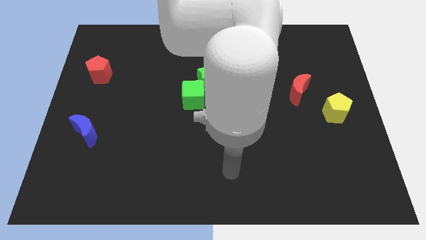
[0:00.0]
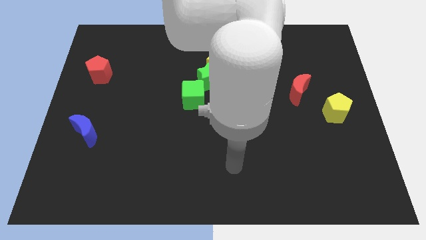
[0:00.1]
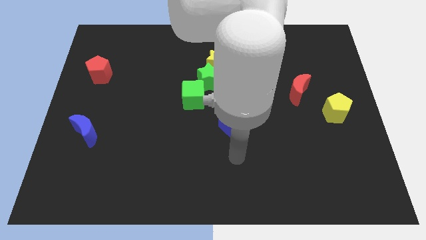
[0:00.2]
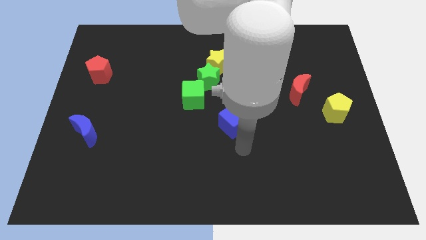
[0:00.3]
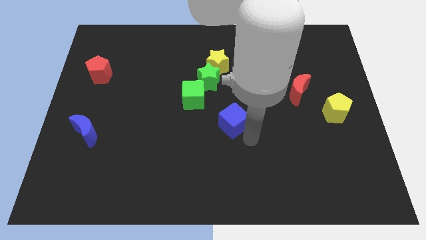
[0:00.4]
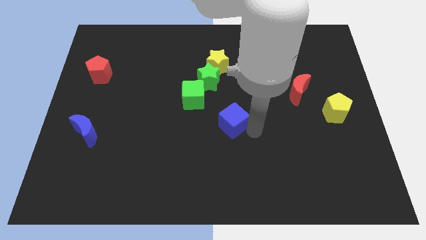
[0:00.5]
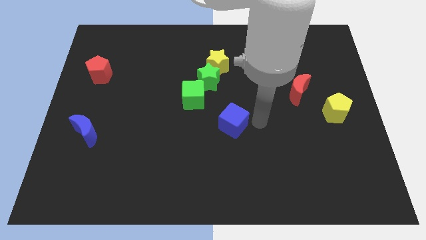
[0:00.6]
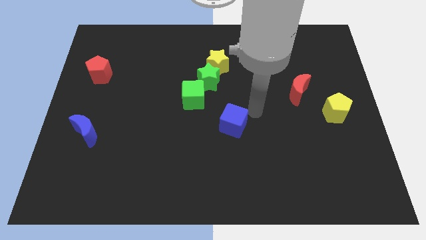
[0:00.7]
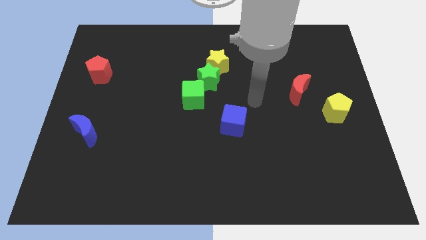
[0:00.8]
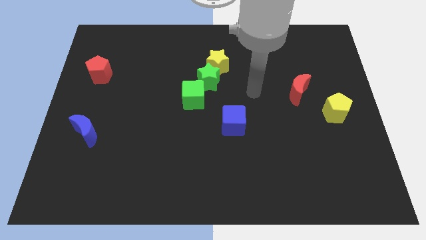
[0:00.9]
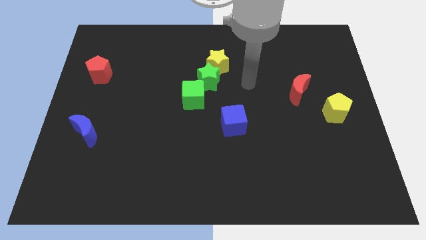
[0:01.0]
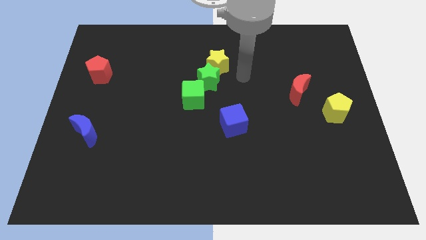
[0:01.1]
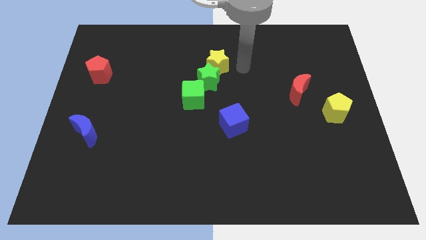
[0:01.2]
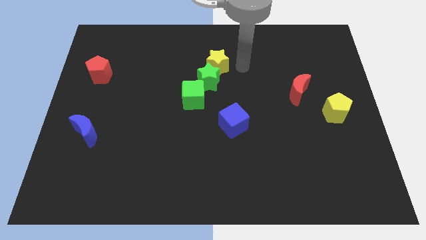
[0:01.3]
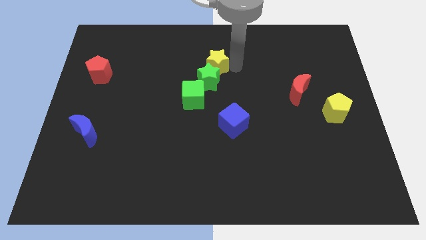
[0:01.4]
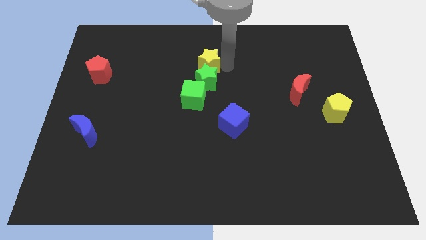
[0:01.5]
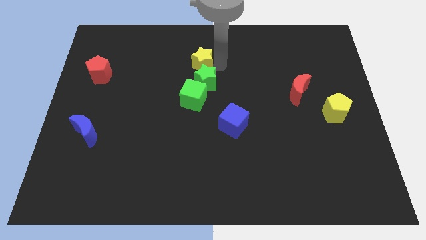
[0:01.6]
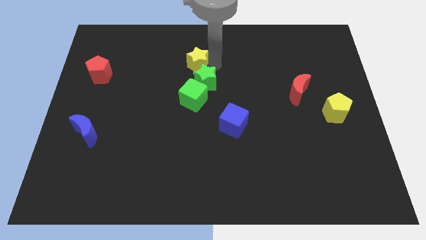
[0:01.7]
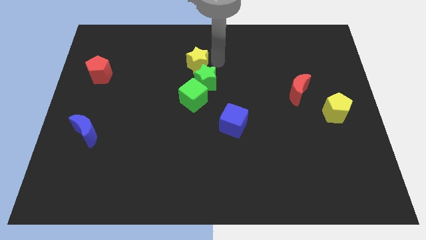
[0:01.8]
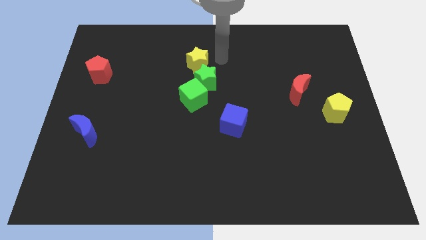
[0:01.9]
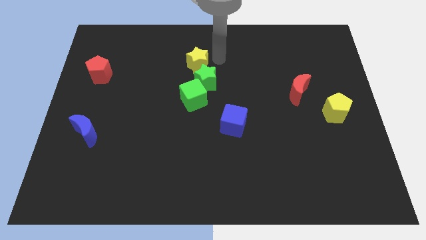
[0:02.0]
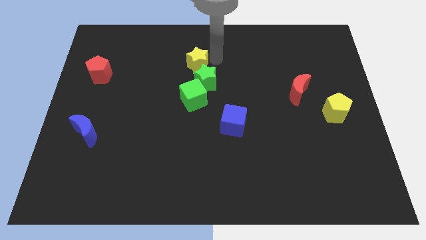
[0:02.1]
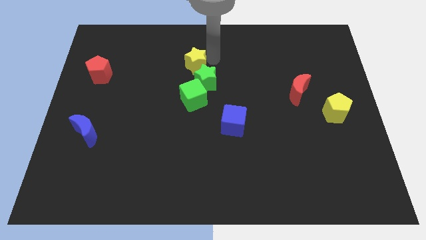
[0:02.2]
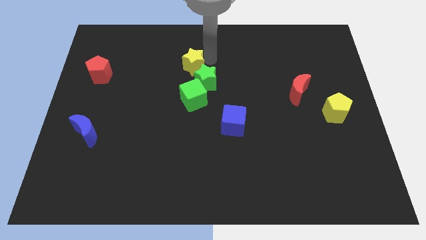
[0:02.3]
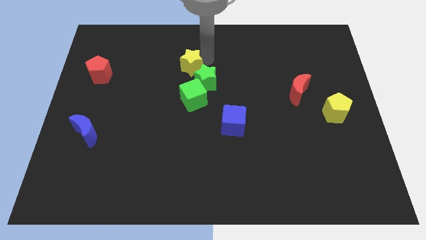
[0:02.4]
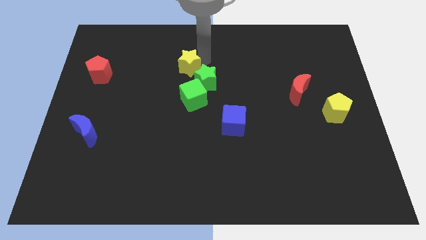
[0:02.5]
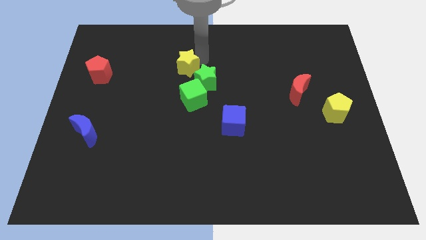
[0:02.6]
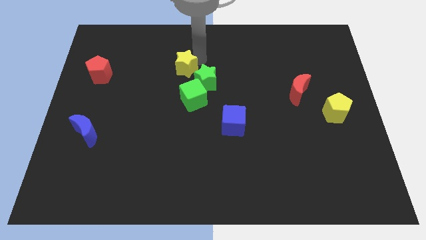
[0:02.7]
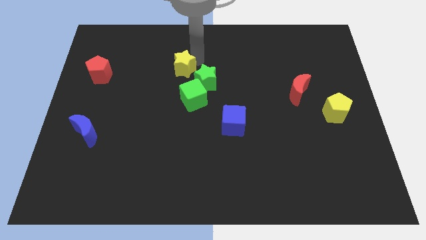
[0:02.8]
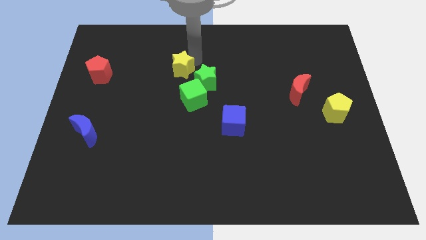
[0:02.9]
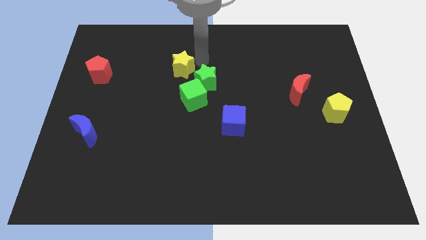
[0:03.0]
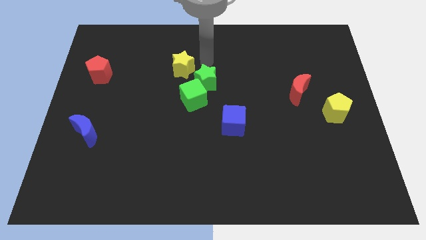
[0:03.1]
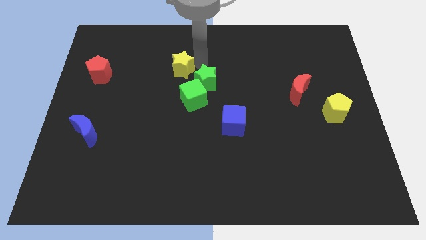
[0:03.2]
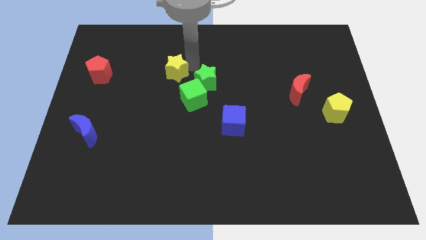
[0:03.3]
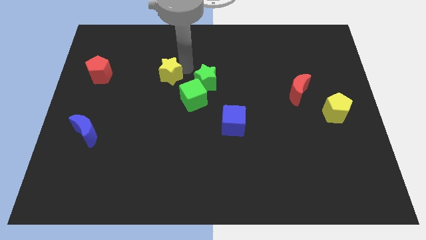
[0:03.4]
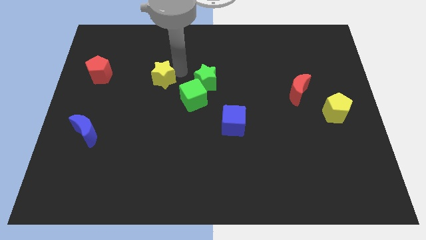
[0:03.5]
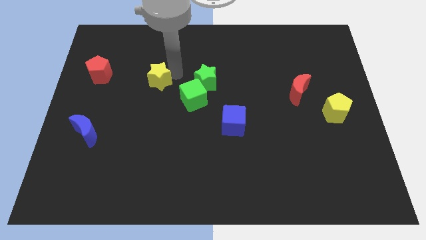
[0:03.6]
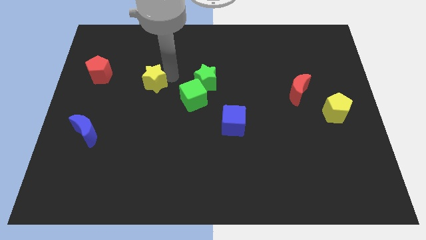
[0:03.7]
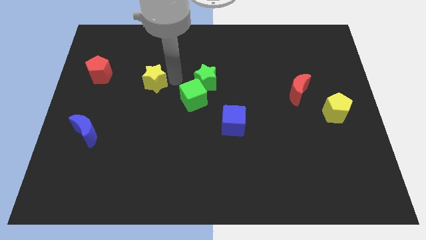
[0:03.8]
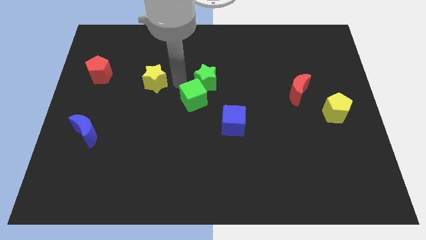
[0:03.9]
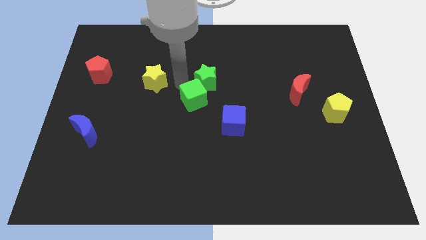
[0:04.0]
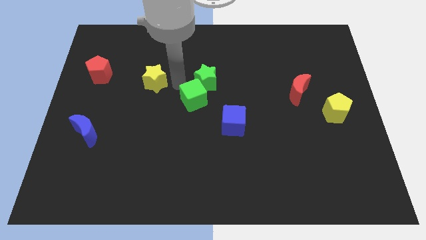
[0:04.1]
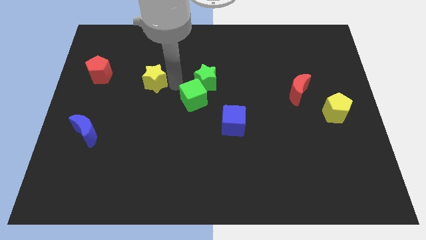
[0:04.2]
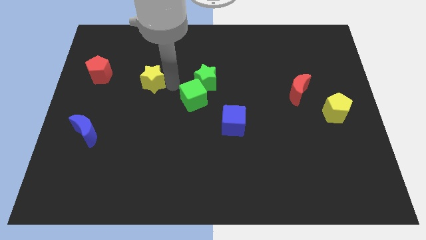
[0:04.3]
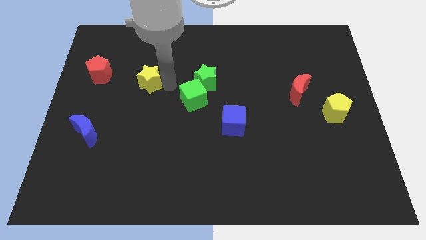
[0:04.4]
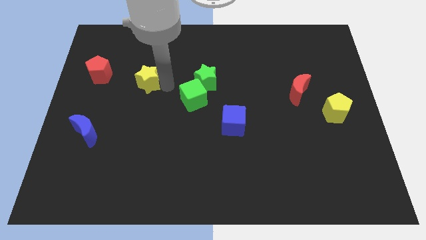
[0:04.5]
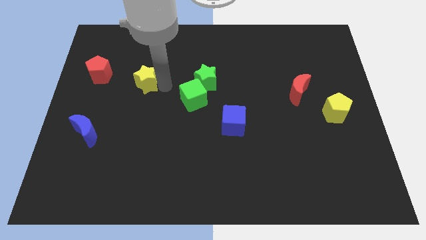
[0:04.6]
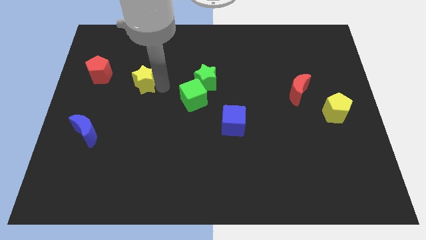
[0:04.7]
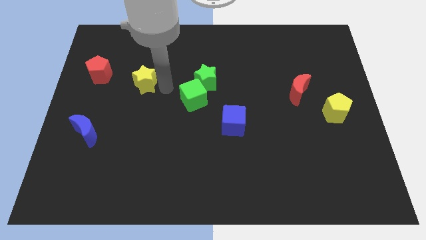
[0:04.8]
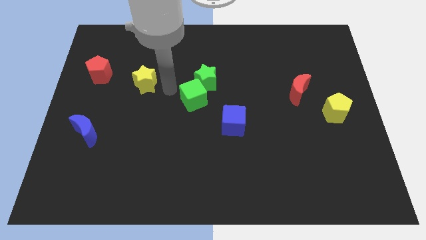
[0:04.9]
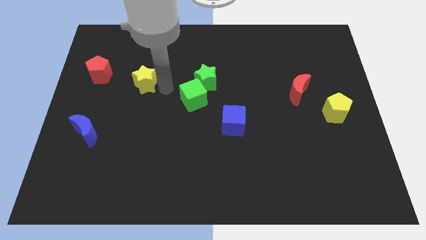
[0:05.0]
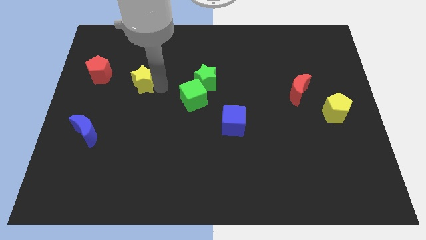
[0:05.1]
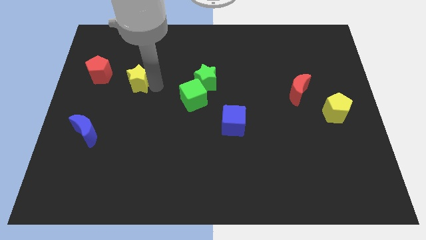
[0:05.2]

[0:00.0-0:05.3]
slide the yellow star to the bottom right of the red pentagon

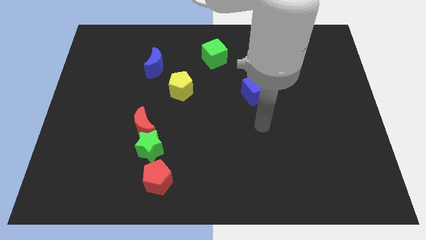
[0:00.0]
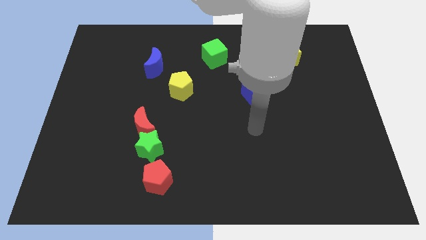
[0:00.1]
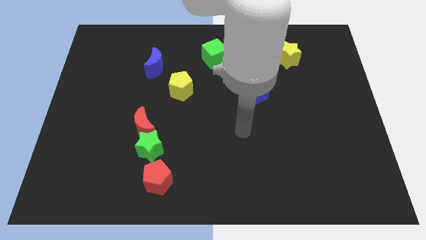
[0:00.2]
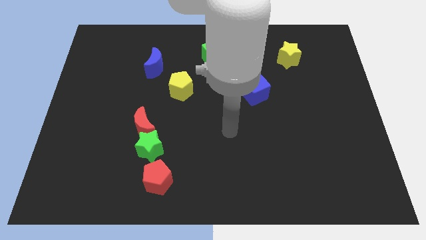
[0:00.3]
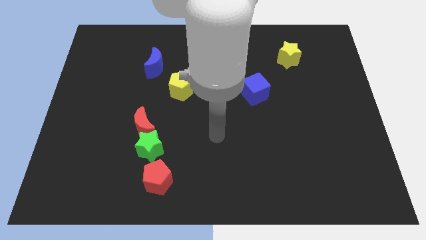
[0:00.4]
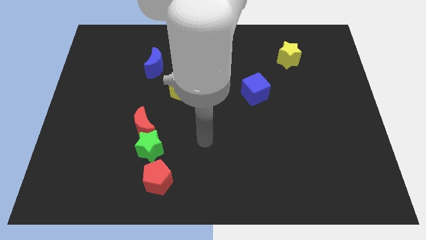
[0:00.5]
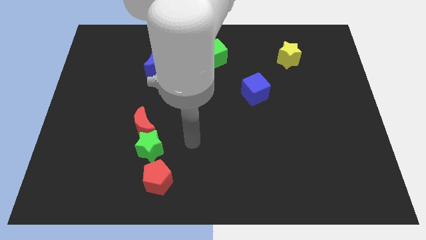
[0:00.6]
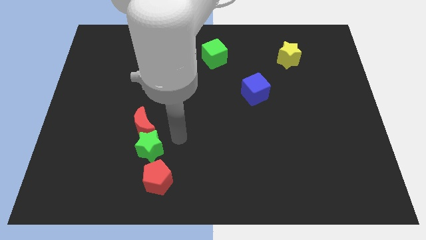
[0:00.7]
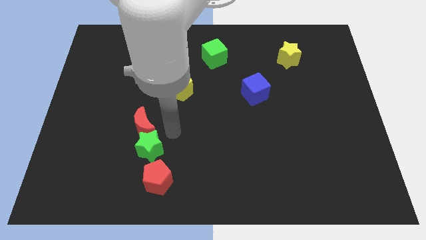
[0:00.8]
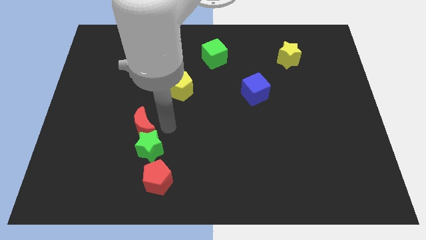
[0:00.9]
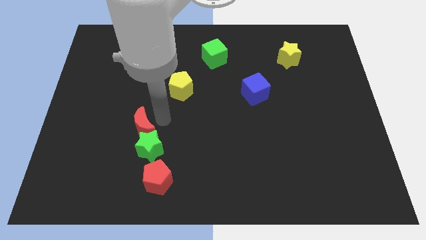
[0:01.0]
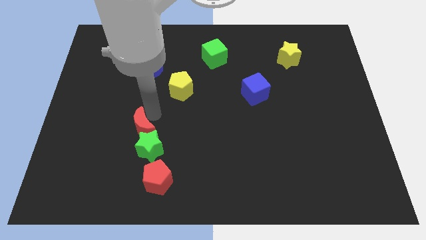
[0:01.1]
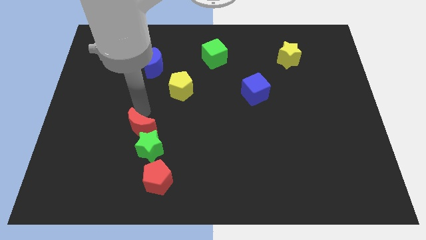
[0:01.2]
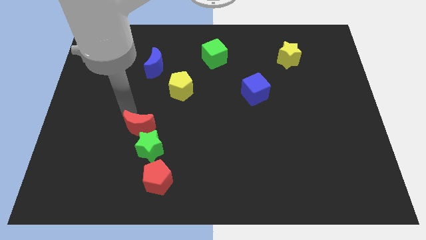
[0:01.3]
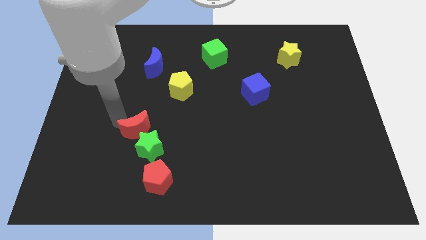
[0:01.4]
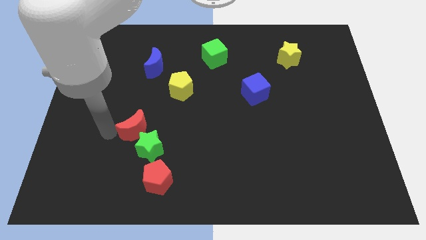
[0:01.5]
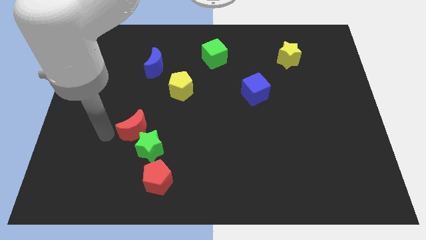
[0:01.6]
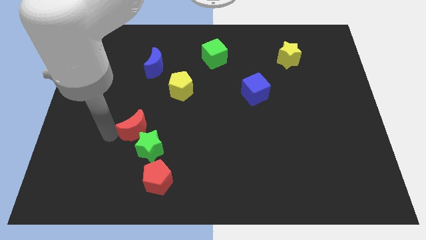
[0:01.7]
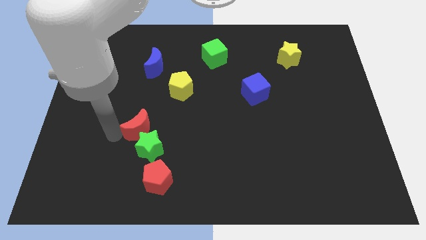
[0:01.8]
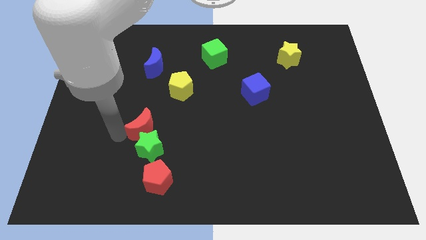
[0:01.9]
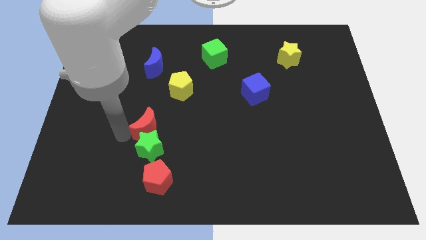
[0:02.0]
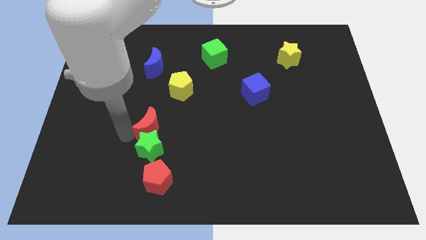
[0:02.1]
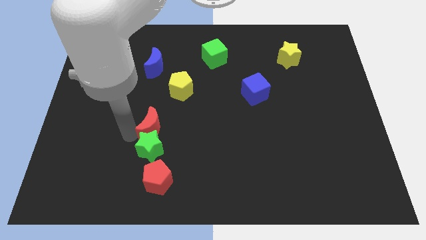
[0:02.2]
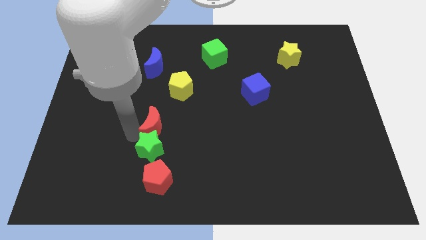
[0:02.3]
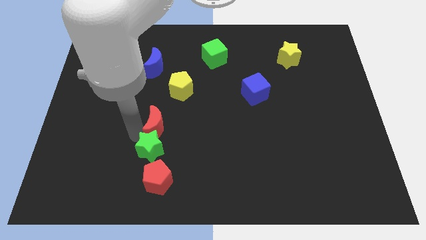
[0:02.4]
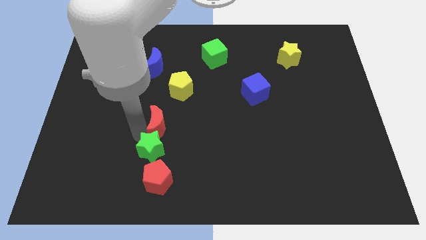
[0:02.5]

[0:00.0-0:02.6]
put the red moon to the bottom of the yellow pentagon
